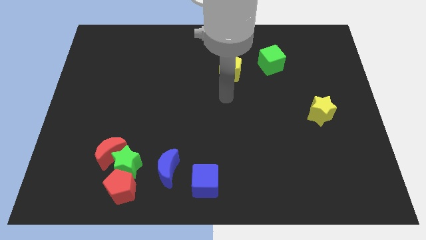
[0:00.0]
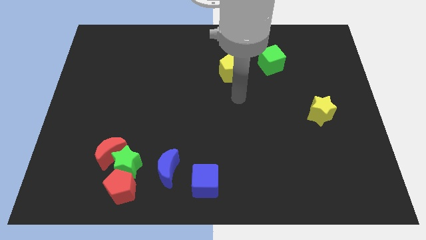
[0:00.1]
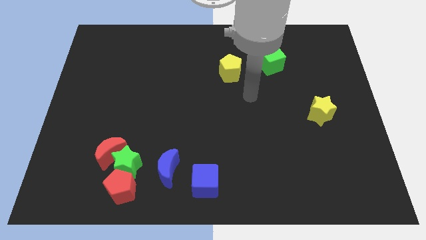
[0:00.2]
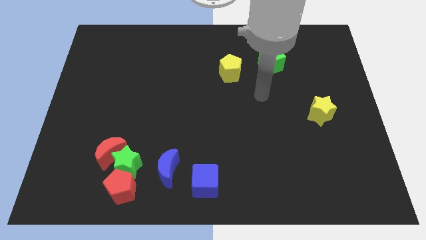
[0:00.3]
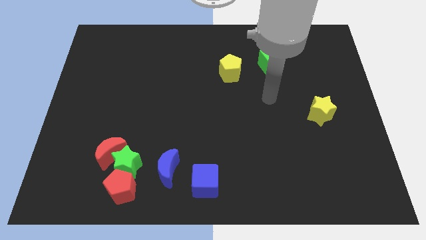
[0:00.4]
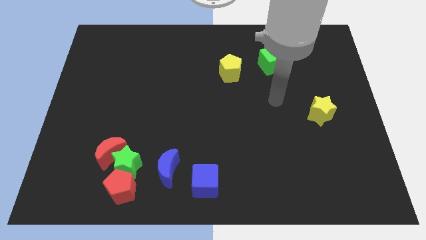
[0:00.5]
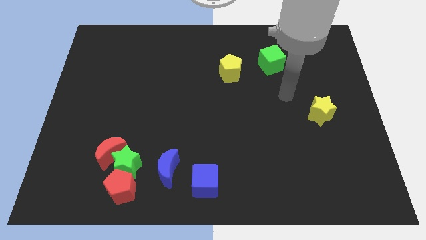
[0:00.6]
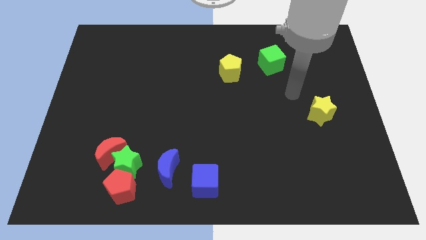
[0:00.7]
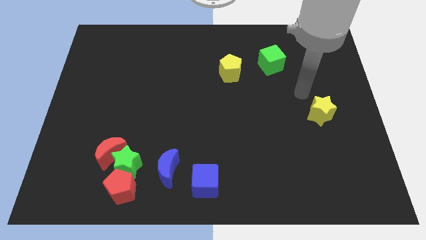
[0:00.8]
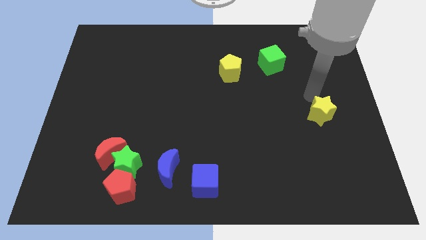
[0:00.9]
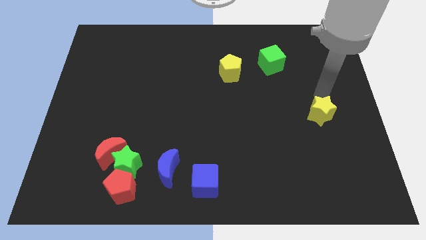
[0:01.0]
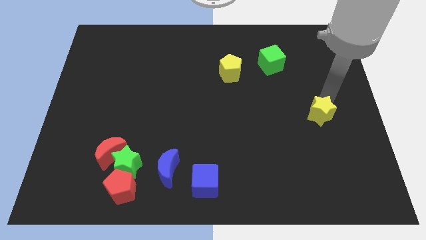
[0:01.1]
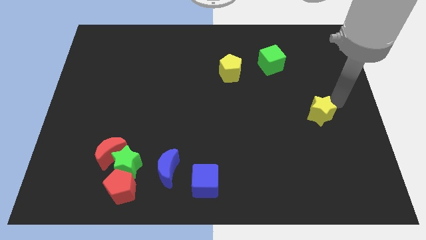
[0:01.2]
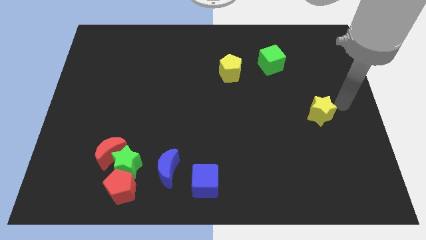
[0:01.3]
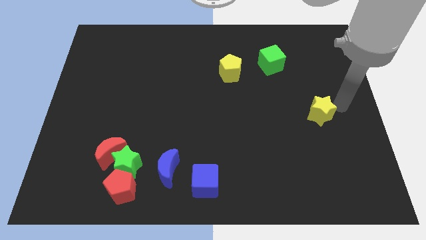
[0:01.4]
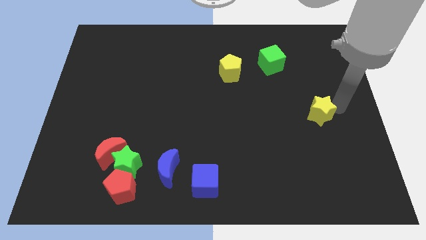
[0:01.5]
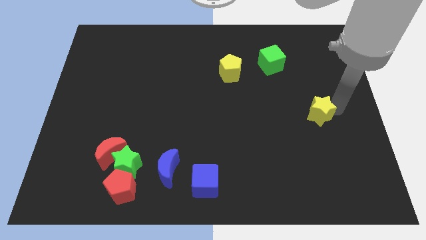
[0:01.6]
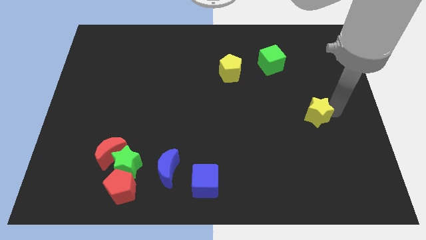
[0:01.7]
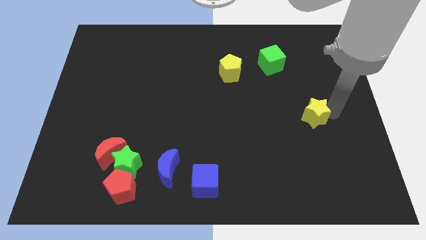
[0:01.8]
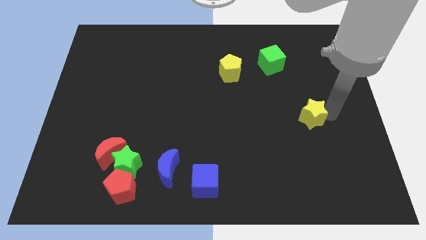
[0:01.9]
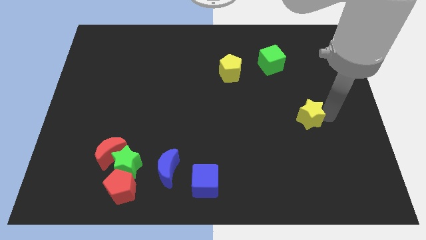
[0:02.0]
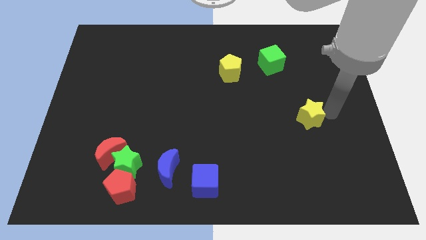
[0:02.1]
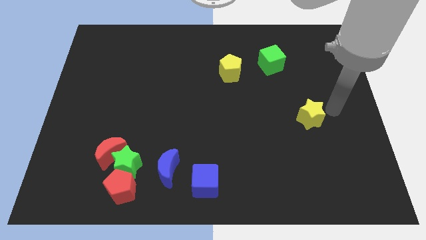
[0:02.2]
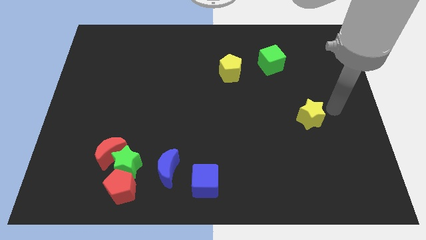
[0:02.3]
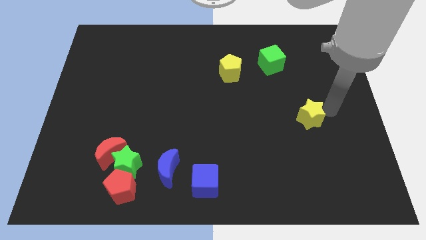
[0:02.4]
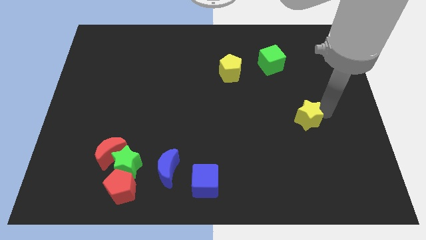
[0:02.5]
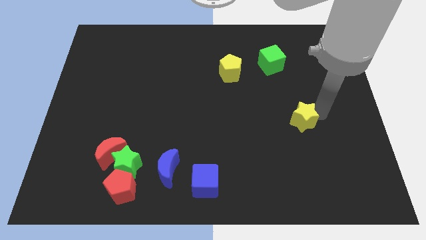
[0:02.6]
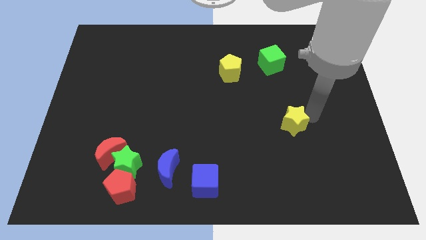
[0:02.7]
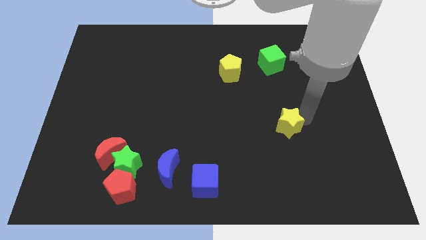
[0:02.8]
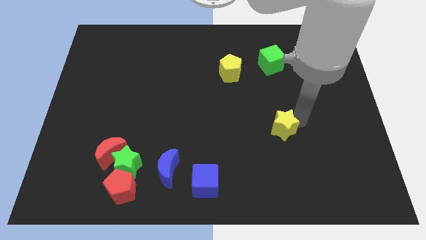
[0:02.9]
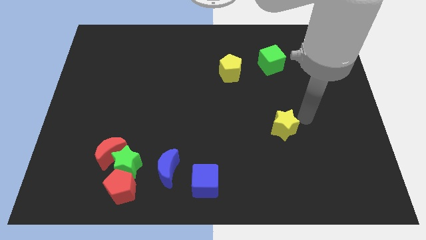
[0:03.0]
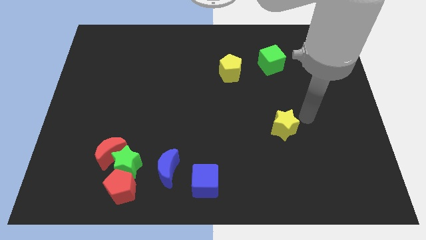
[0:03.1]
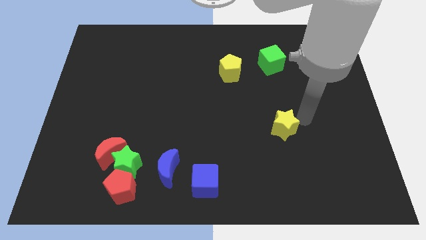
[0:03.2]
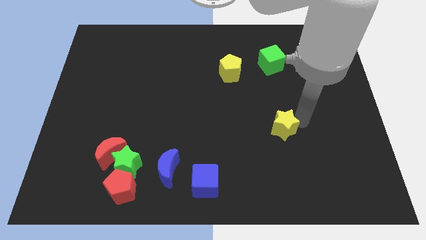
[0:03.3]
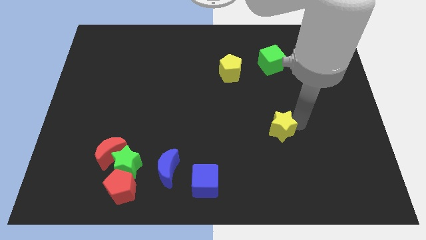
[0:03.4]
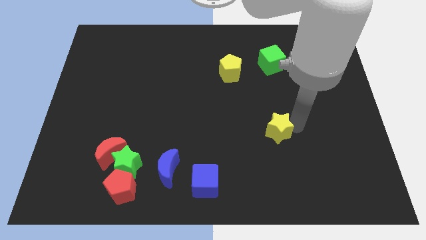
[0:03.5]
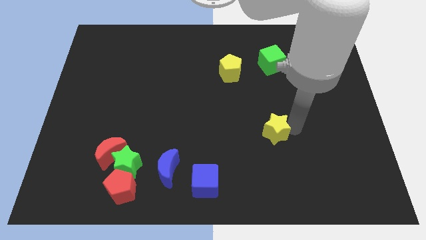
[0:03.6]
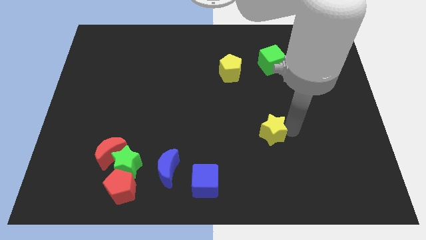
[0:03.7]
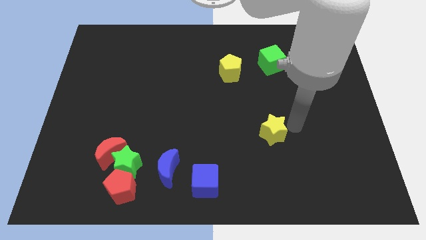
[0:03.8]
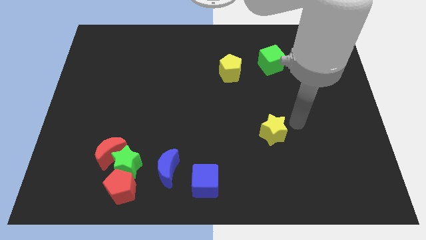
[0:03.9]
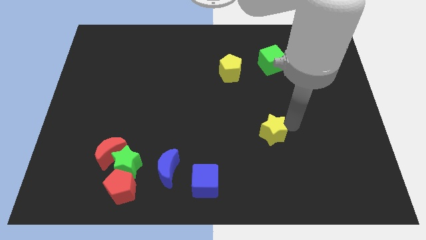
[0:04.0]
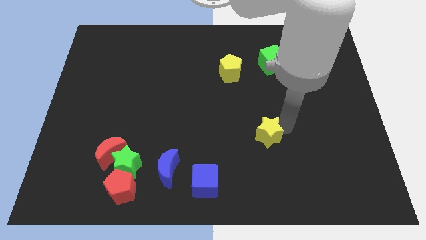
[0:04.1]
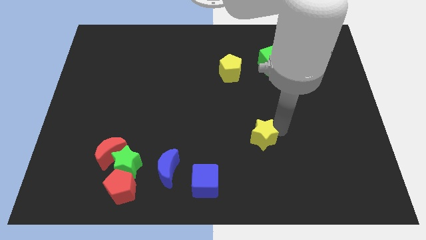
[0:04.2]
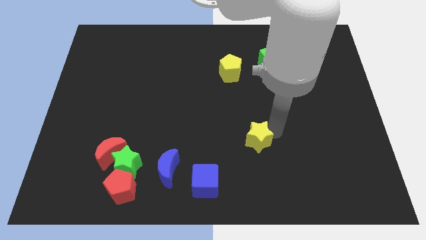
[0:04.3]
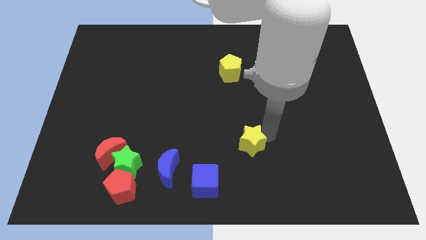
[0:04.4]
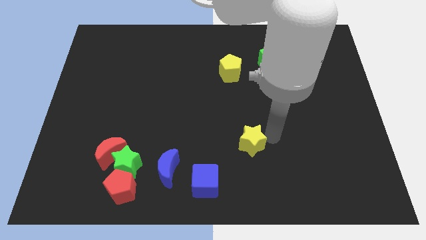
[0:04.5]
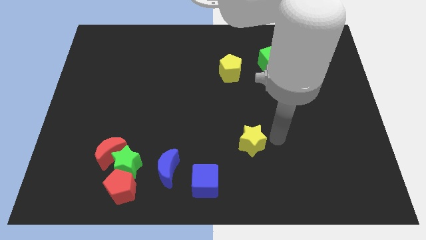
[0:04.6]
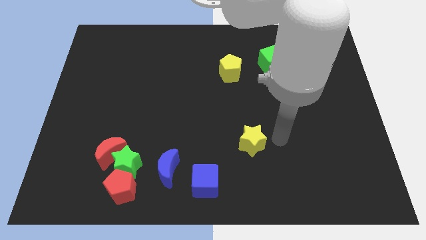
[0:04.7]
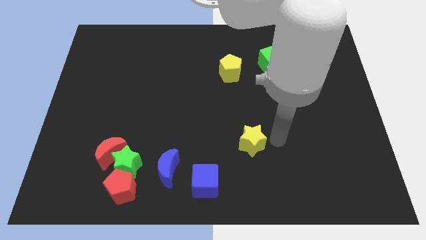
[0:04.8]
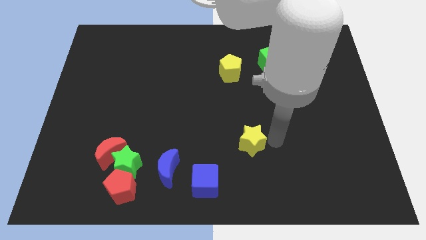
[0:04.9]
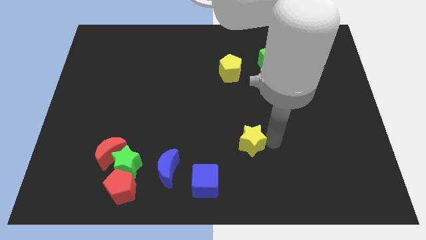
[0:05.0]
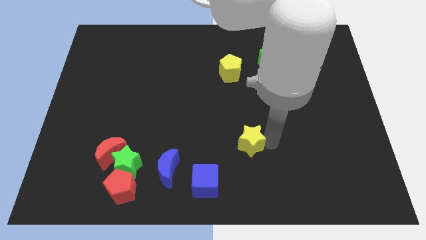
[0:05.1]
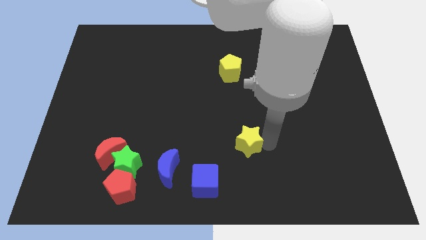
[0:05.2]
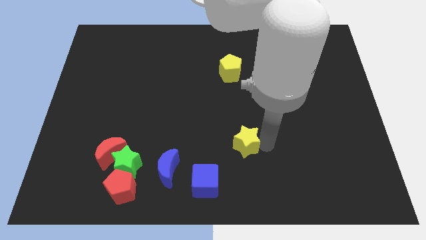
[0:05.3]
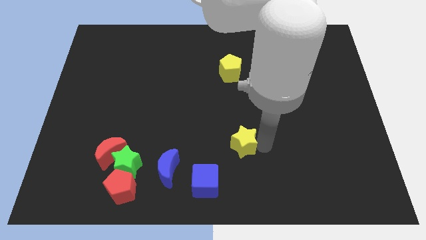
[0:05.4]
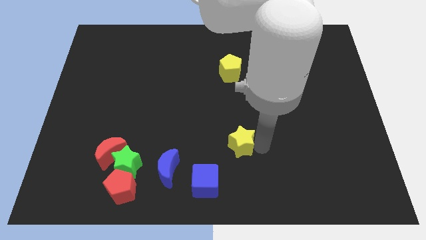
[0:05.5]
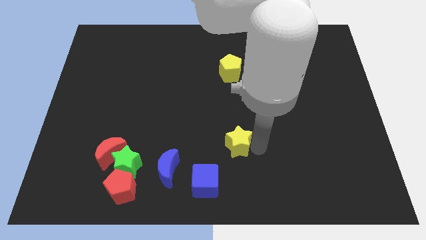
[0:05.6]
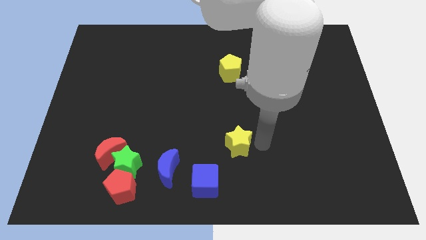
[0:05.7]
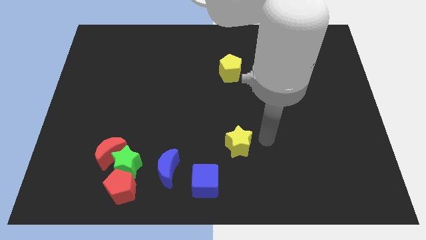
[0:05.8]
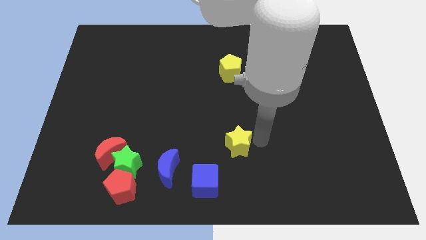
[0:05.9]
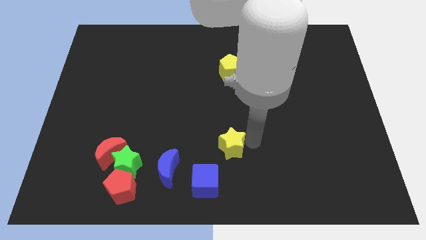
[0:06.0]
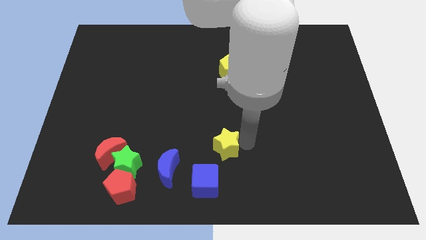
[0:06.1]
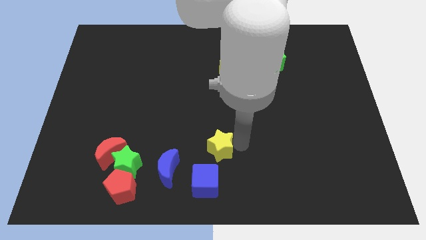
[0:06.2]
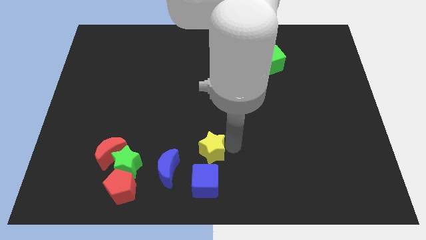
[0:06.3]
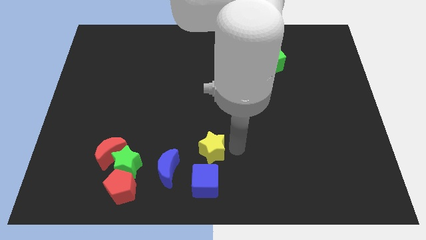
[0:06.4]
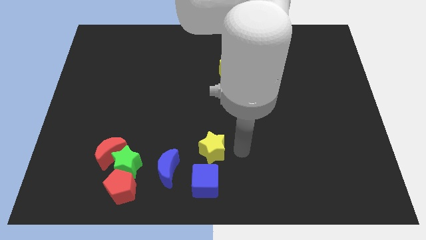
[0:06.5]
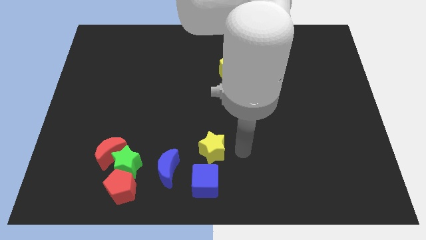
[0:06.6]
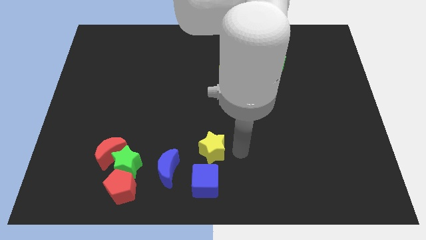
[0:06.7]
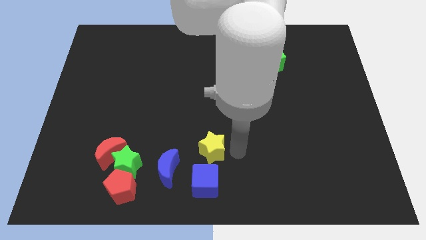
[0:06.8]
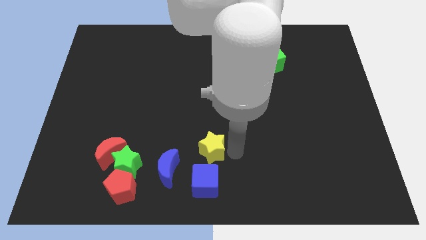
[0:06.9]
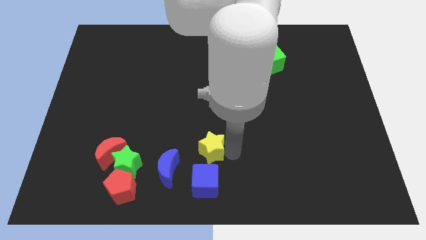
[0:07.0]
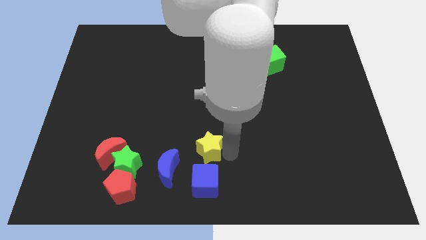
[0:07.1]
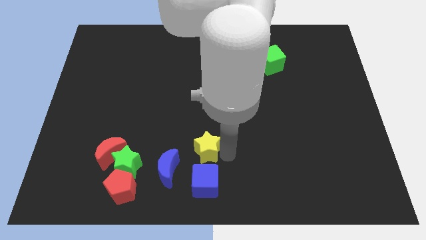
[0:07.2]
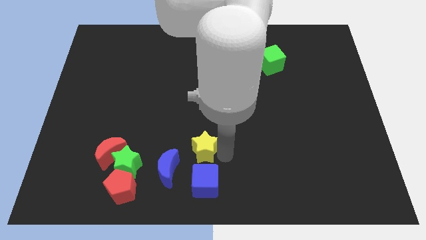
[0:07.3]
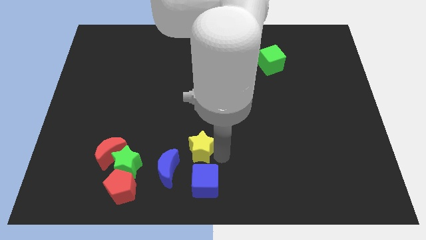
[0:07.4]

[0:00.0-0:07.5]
slide the yellow star to the top left side of the blue cube
